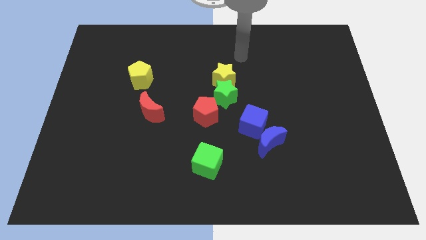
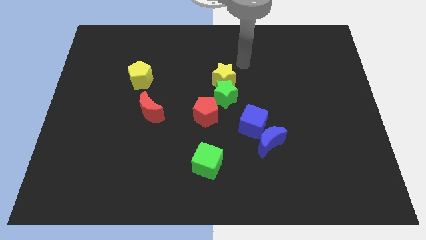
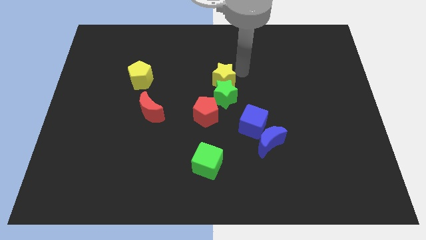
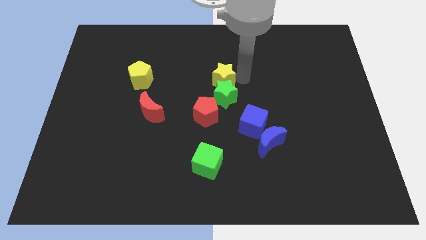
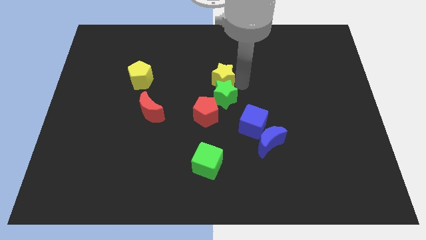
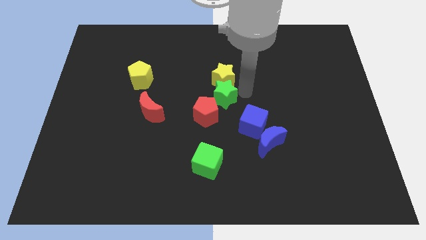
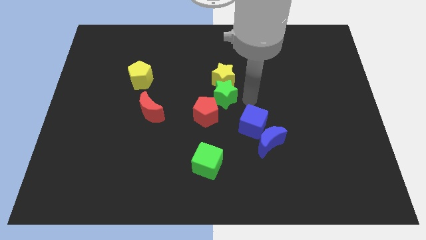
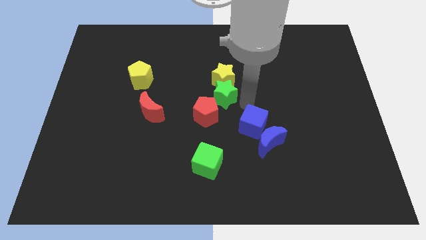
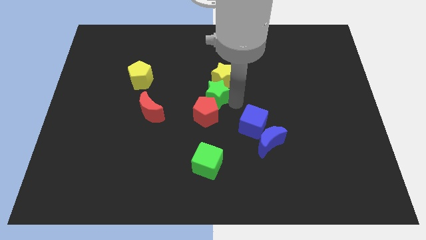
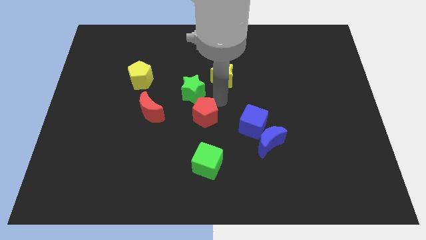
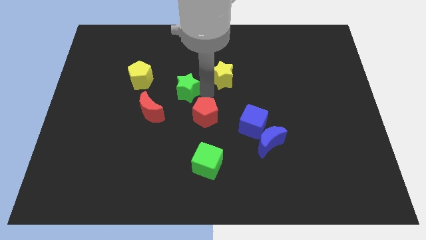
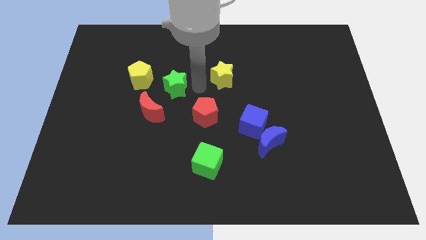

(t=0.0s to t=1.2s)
pull the yellow star apart from the green star

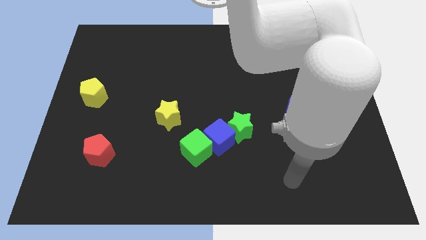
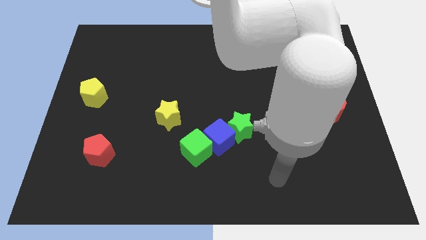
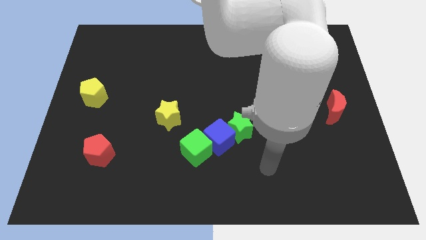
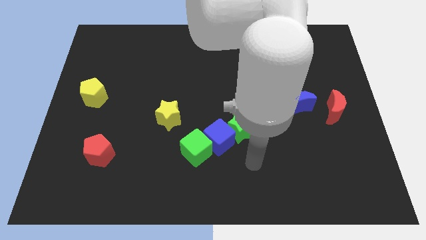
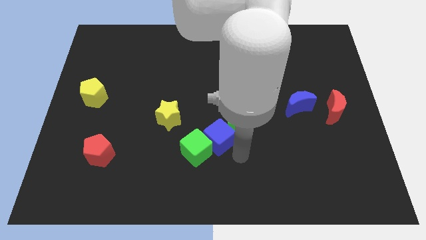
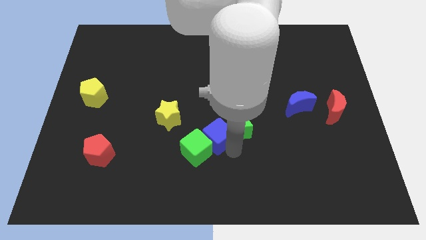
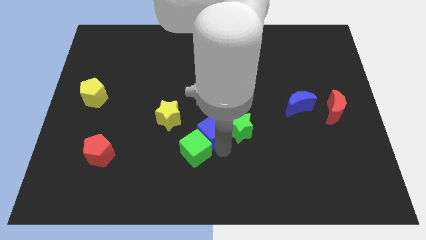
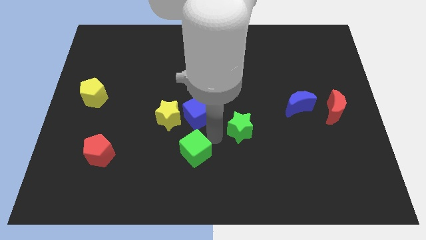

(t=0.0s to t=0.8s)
move the green star away from the blue cube

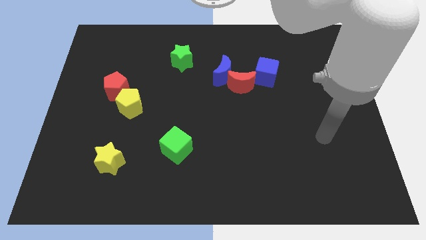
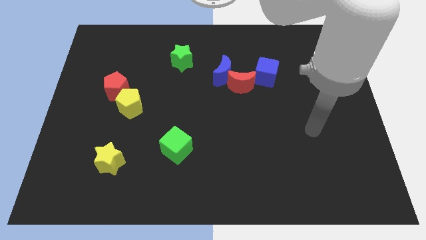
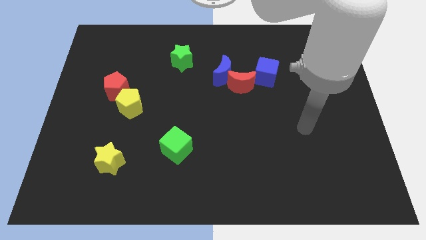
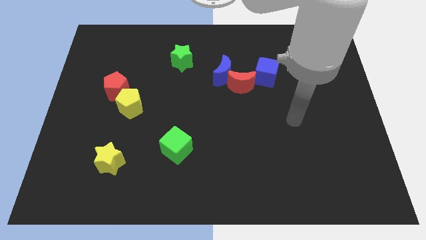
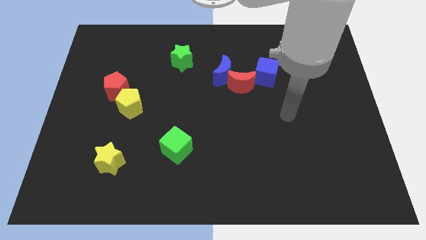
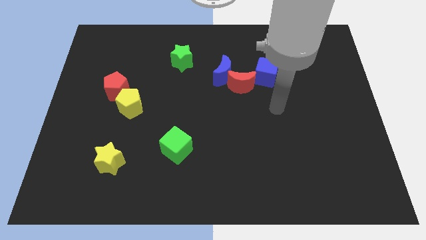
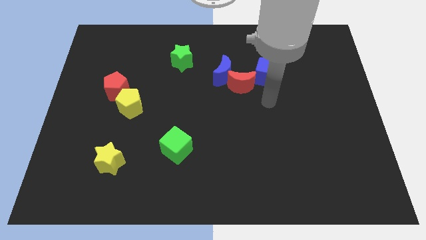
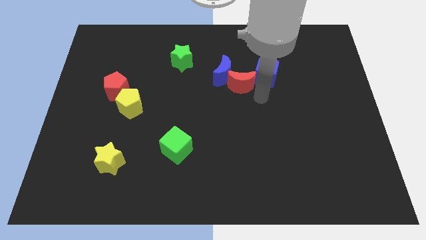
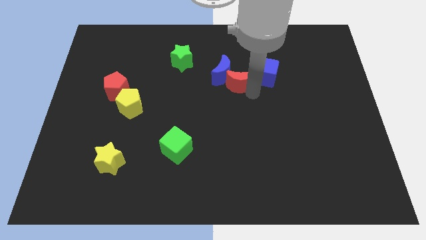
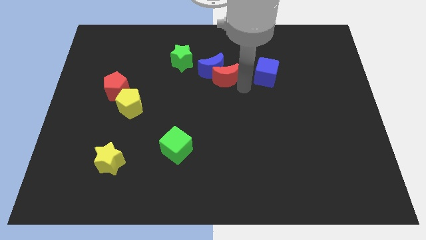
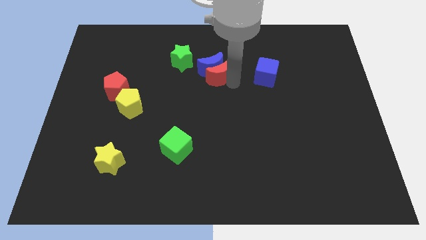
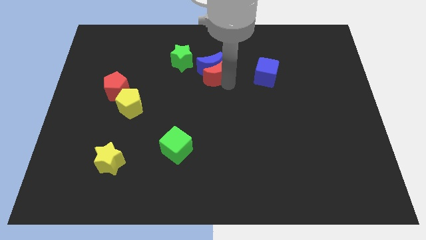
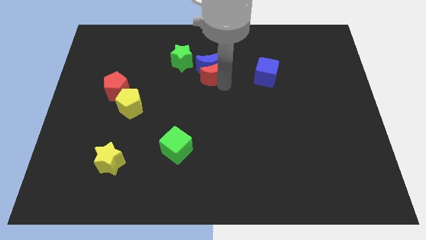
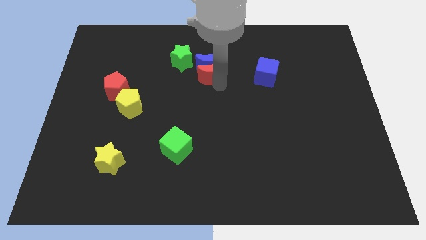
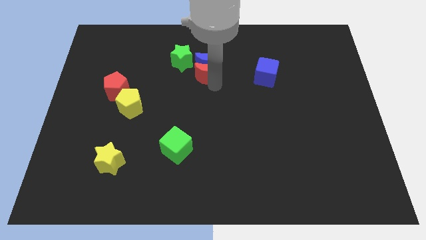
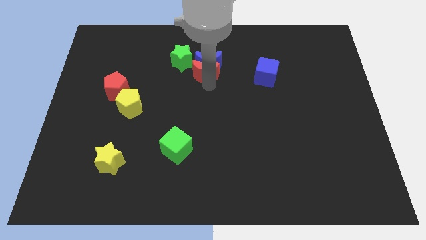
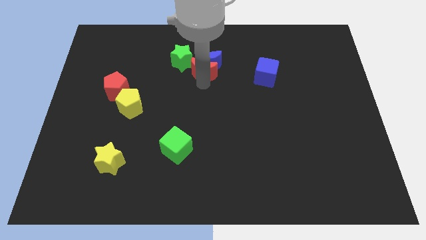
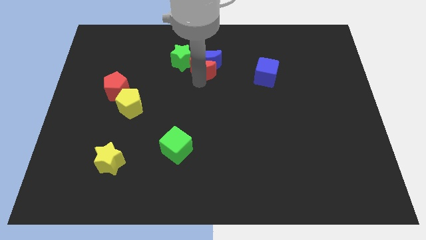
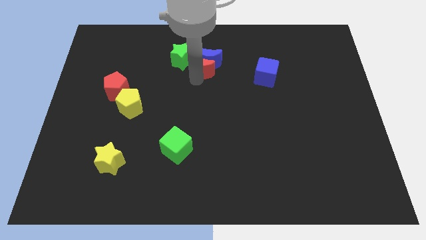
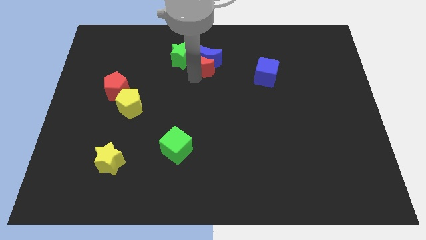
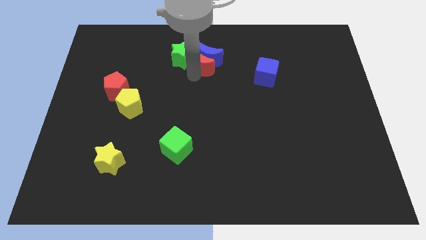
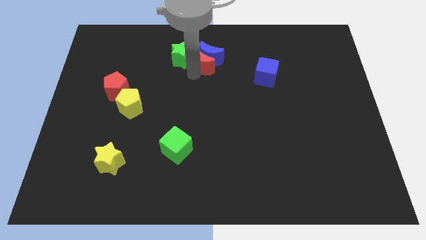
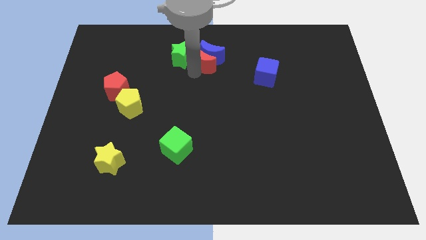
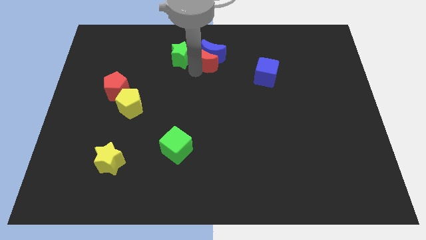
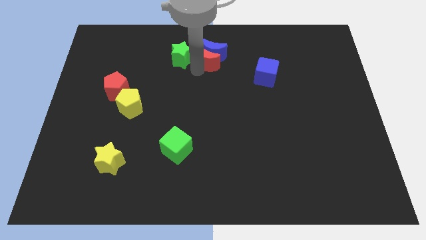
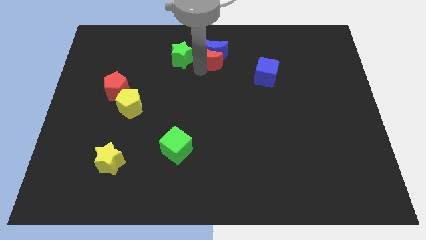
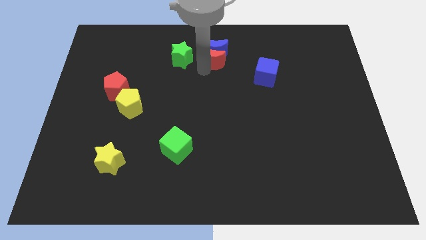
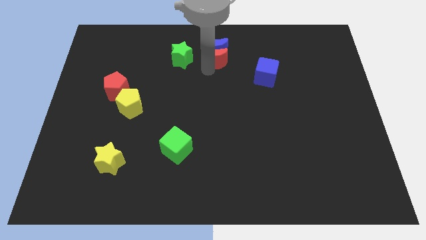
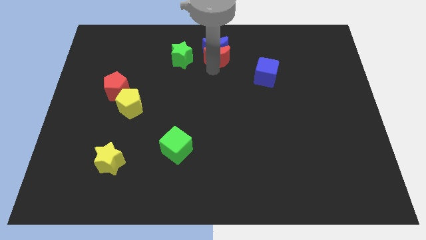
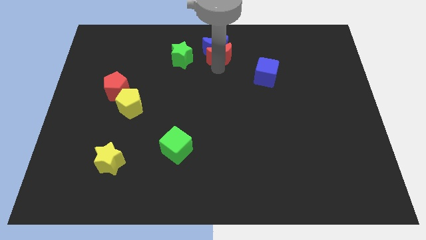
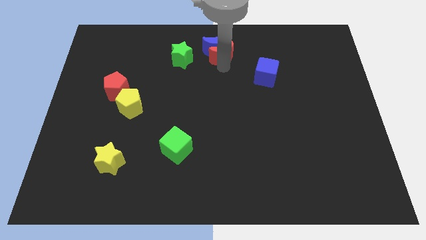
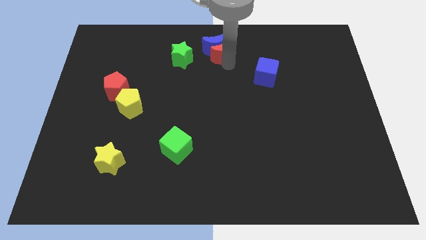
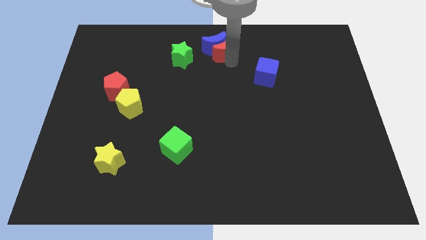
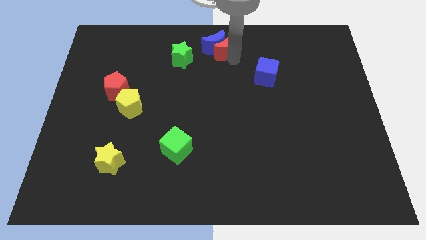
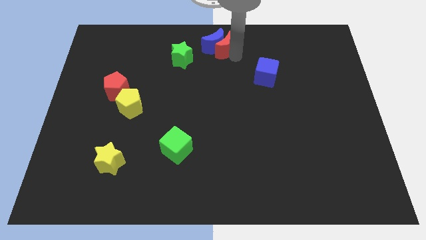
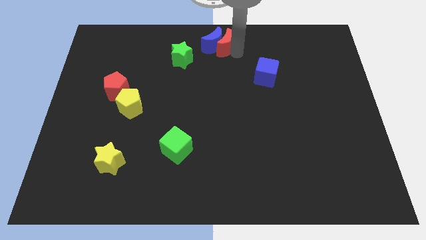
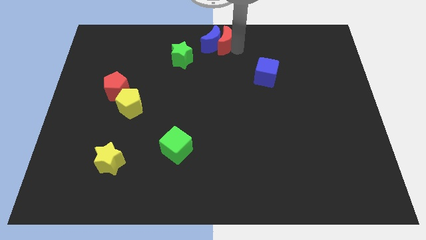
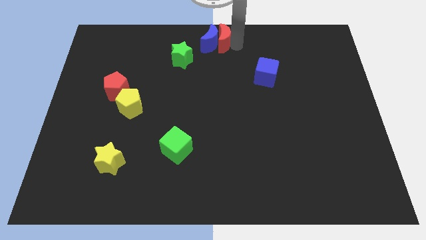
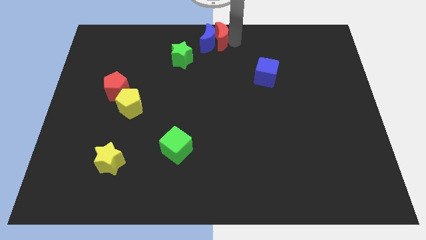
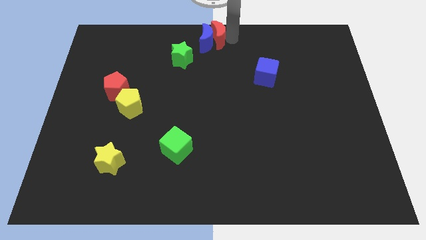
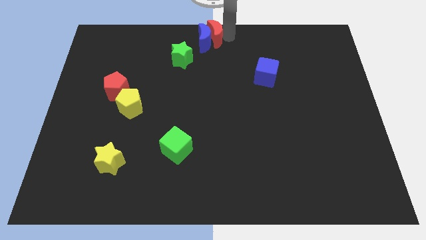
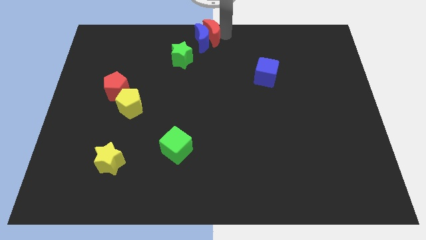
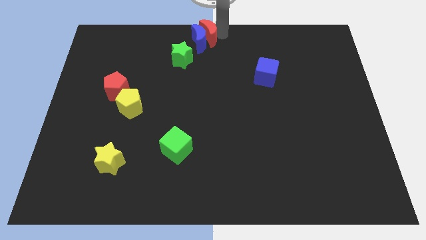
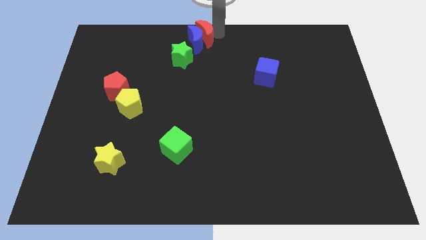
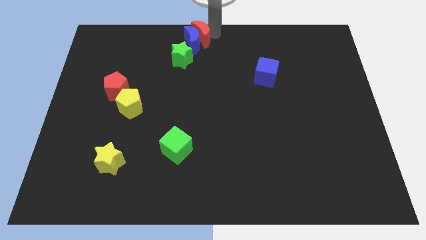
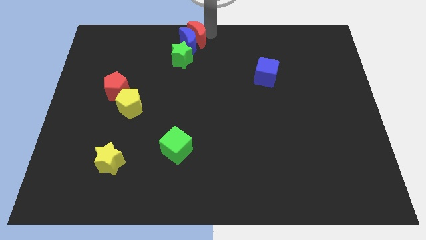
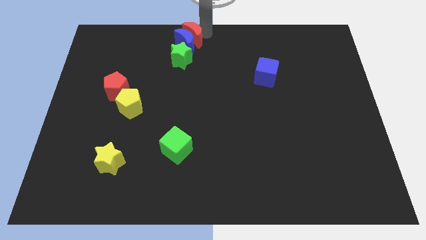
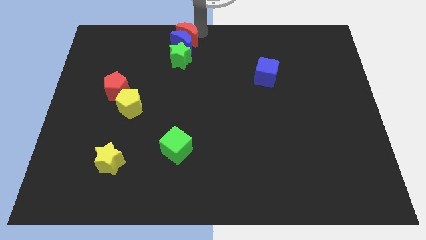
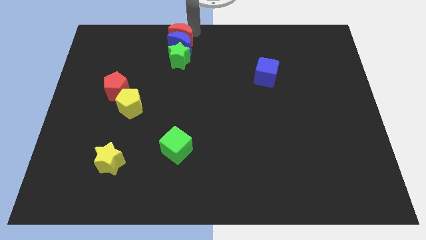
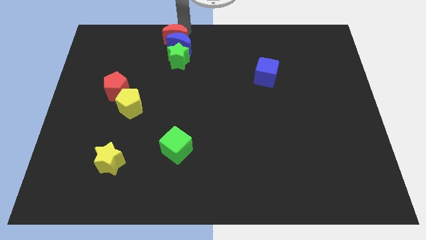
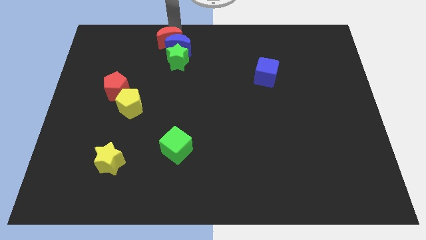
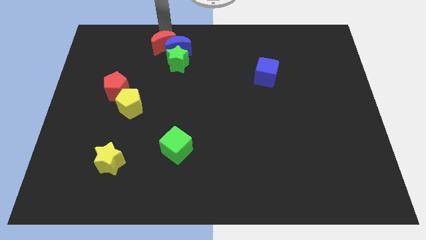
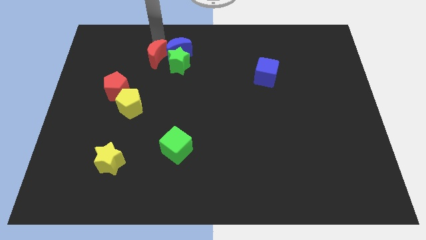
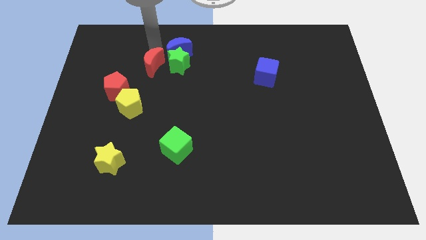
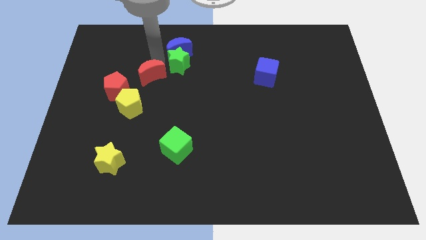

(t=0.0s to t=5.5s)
move the blue moon away from the red moon

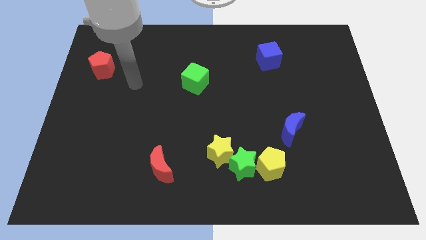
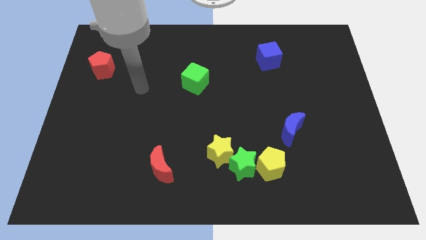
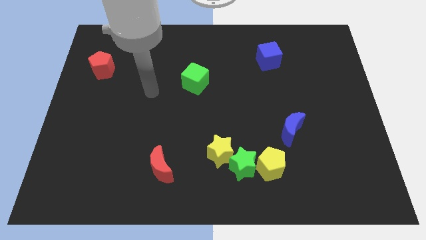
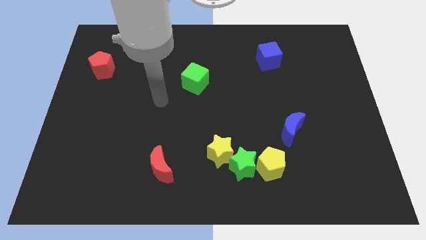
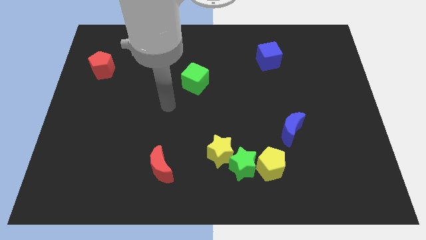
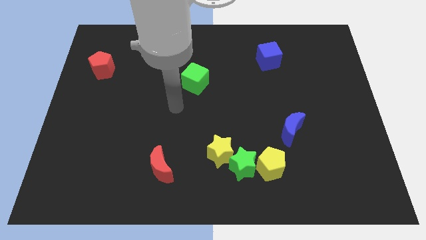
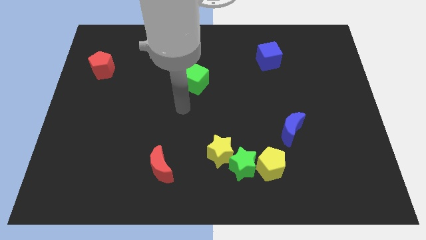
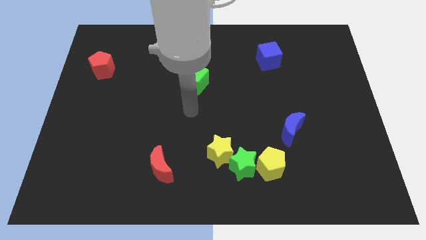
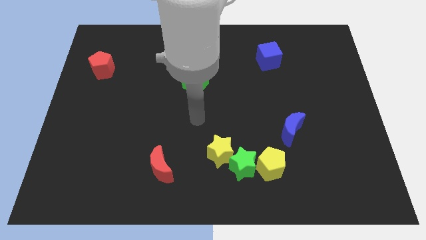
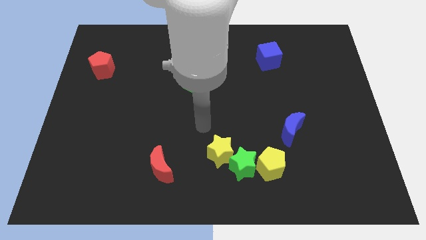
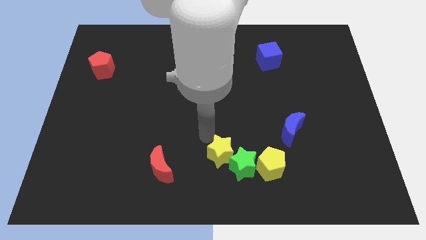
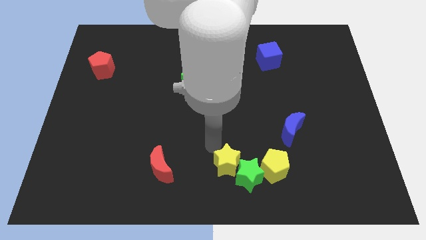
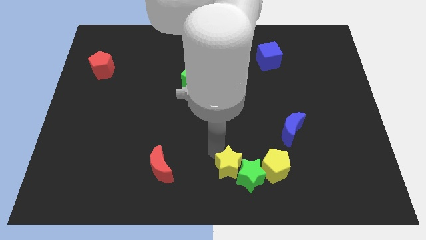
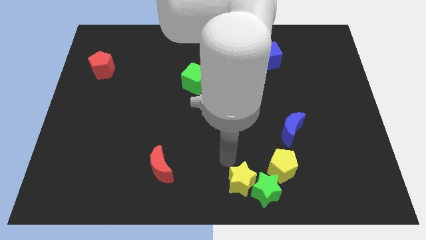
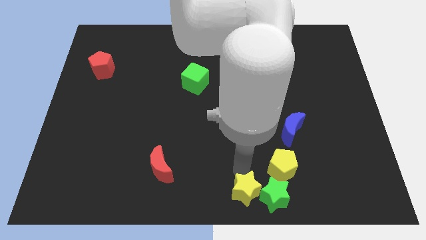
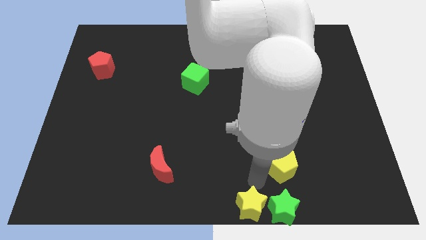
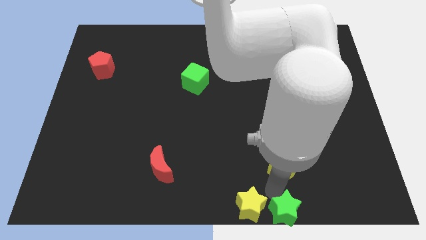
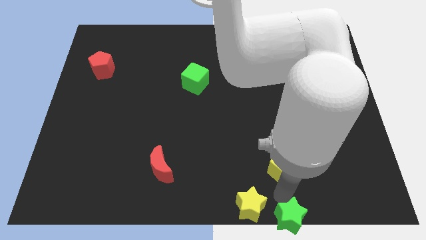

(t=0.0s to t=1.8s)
pull the yellow pentagon apart from the green star

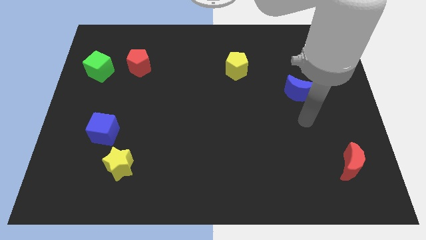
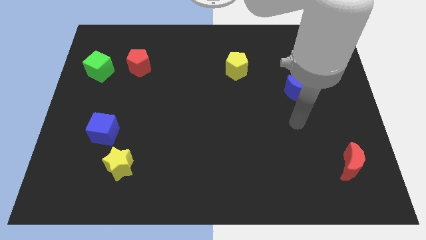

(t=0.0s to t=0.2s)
move the blue cube away from the yellow star
